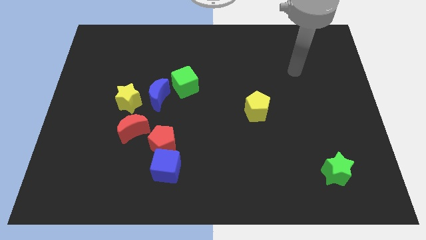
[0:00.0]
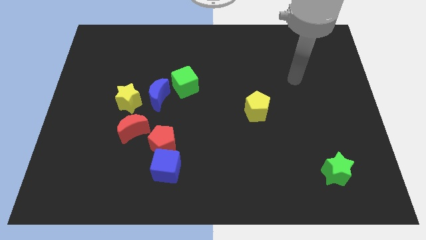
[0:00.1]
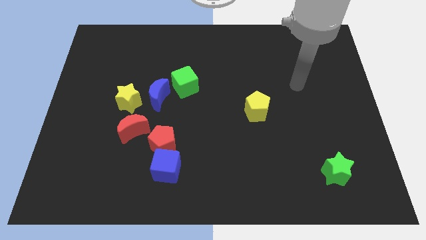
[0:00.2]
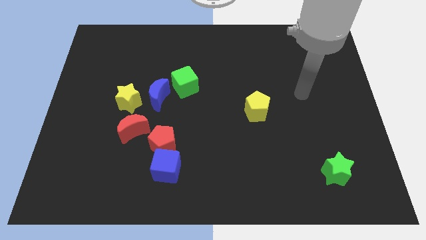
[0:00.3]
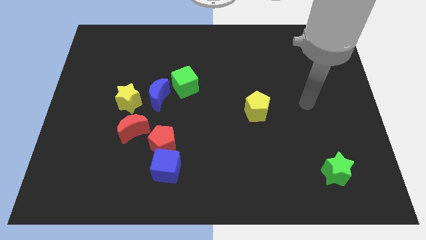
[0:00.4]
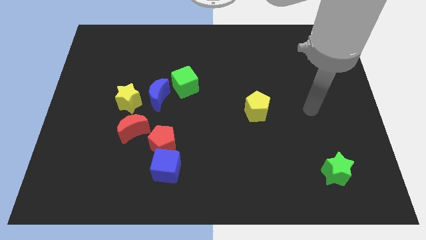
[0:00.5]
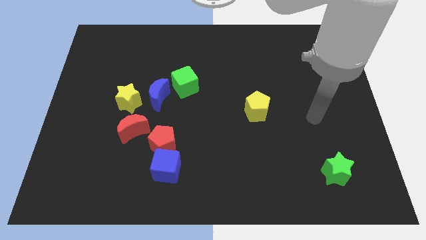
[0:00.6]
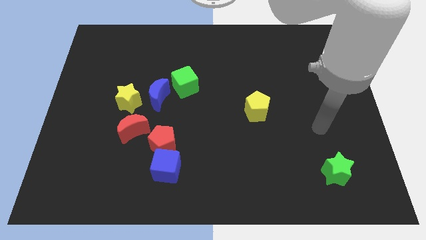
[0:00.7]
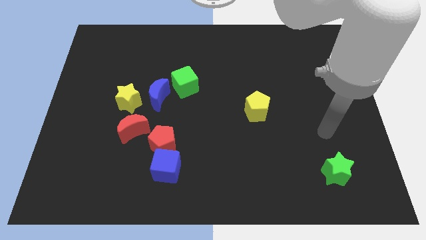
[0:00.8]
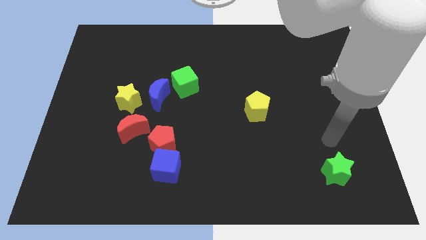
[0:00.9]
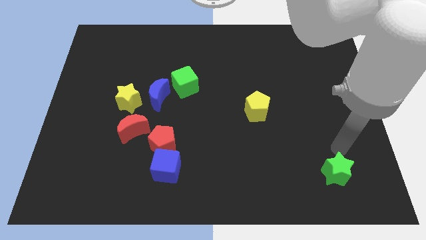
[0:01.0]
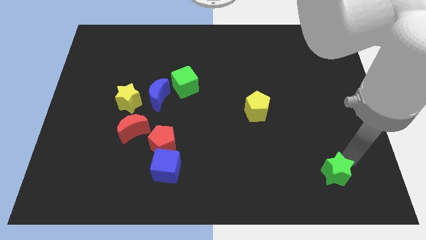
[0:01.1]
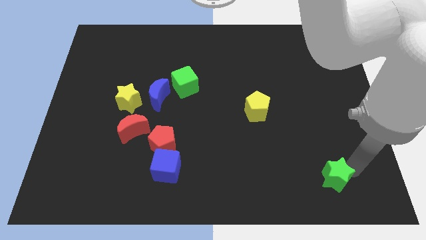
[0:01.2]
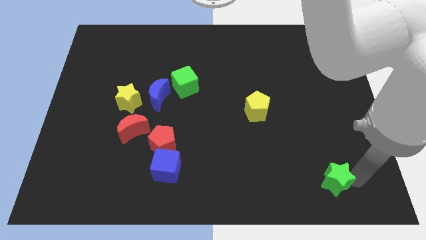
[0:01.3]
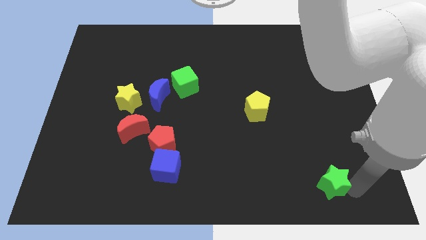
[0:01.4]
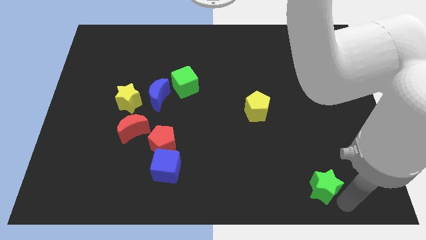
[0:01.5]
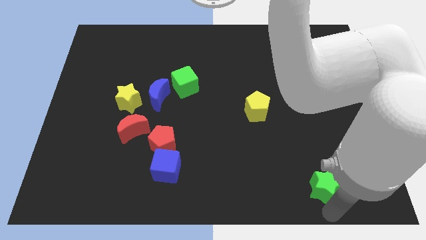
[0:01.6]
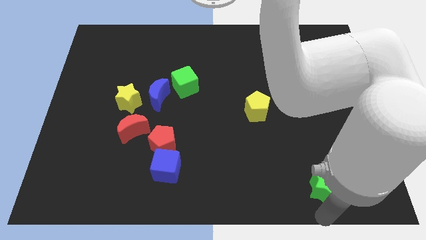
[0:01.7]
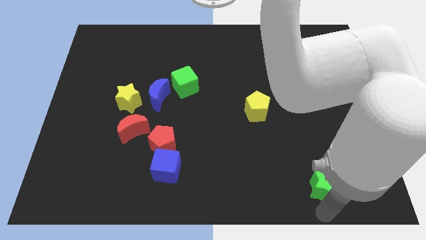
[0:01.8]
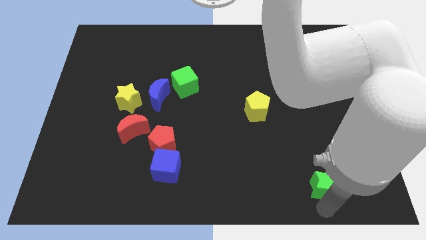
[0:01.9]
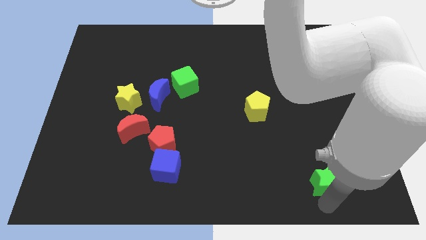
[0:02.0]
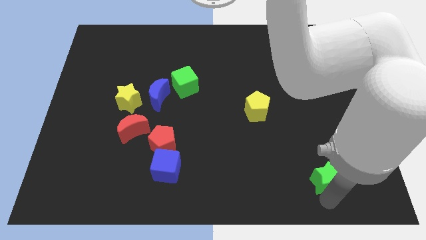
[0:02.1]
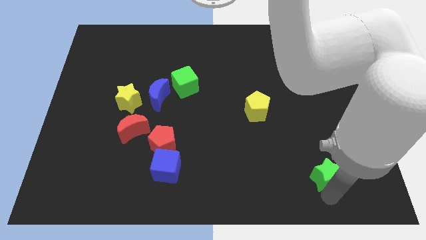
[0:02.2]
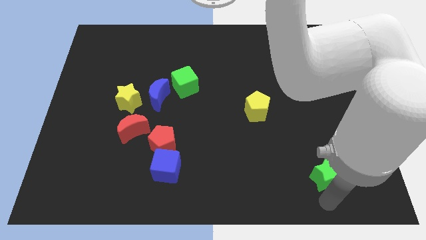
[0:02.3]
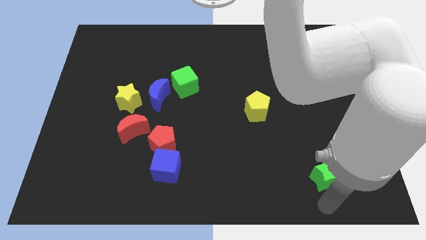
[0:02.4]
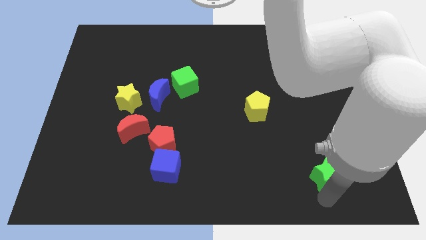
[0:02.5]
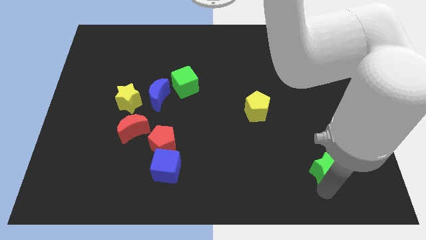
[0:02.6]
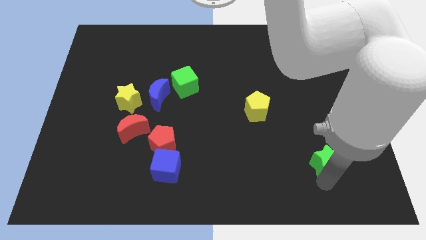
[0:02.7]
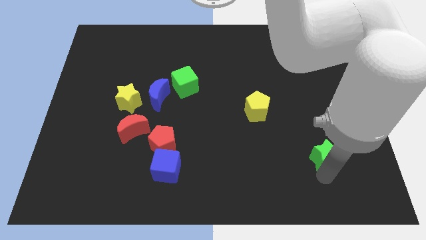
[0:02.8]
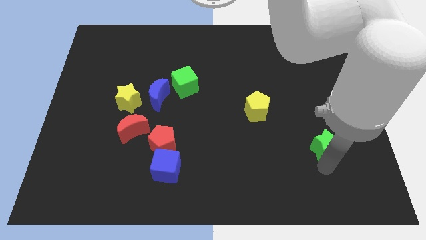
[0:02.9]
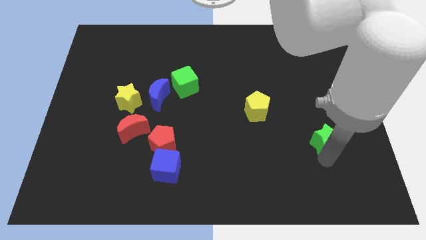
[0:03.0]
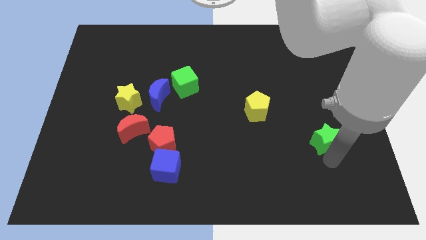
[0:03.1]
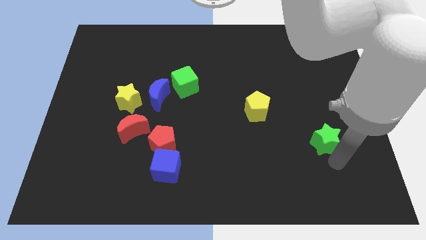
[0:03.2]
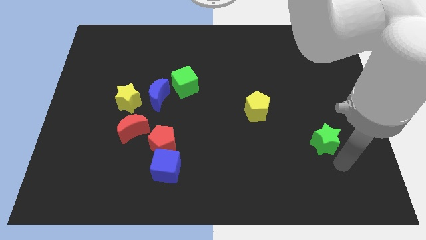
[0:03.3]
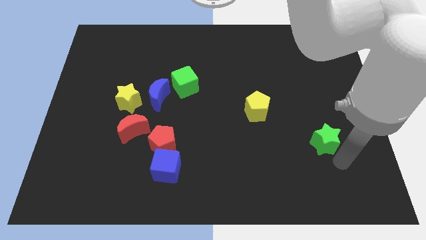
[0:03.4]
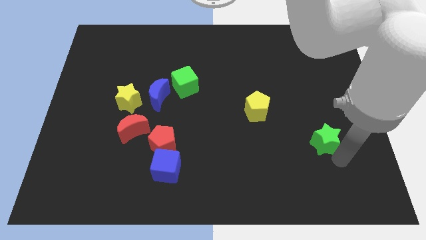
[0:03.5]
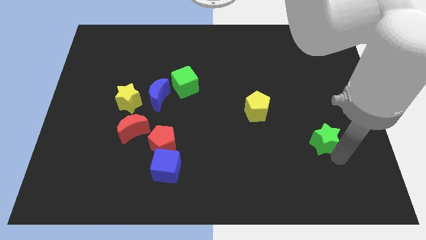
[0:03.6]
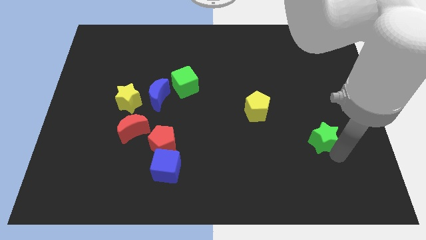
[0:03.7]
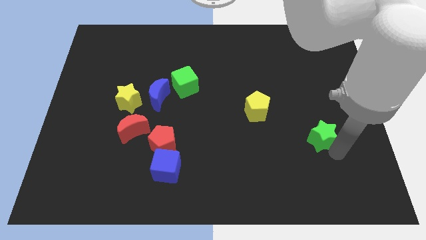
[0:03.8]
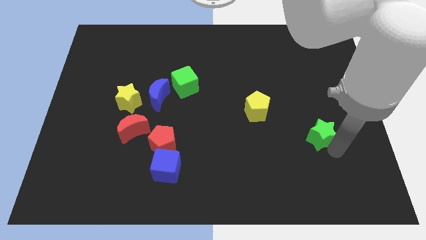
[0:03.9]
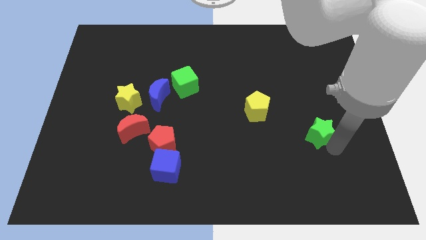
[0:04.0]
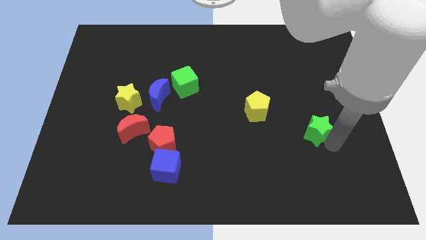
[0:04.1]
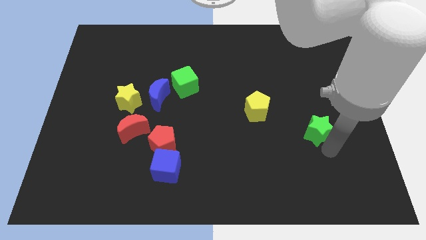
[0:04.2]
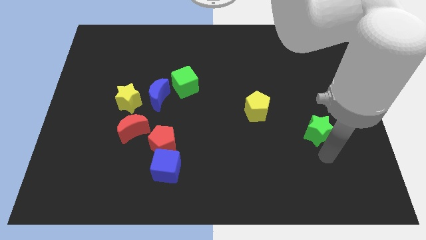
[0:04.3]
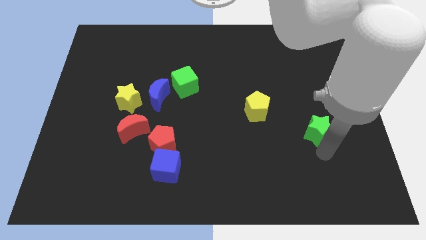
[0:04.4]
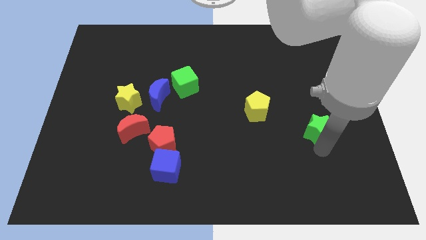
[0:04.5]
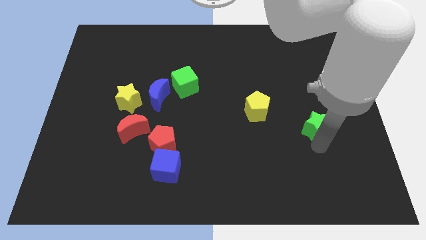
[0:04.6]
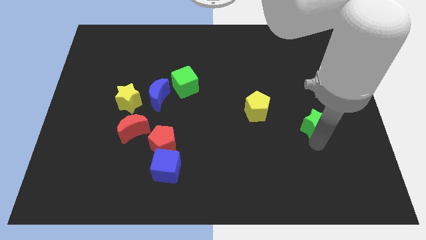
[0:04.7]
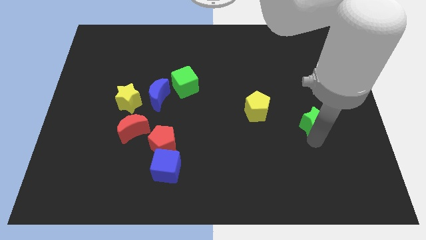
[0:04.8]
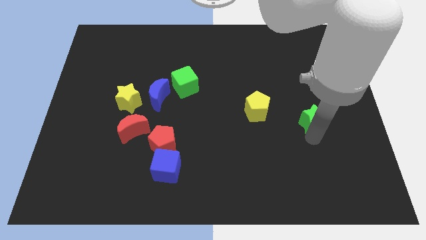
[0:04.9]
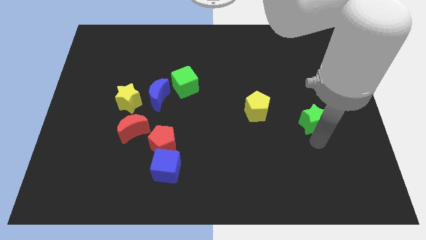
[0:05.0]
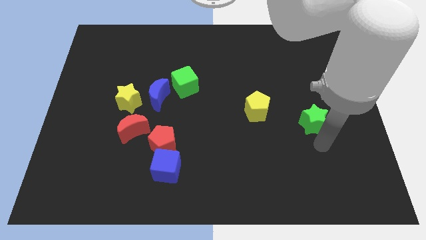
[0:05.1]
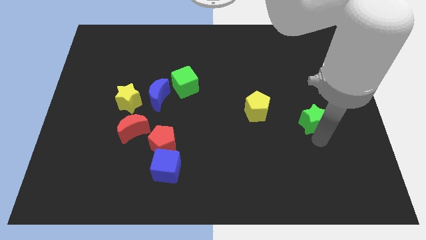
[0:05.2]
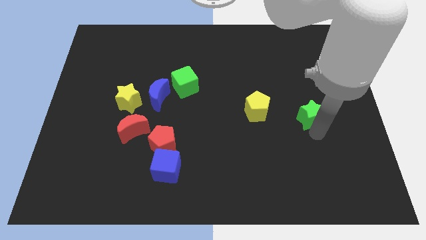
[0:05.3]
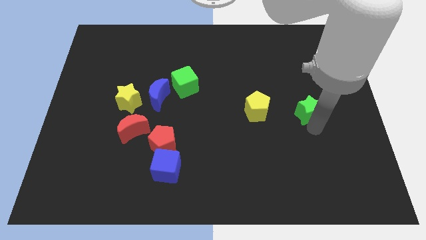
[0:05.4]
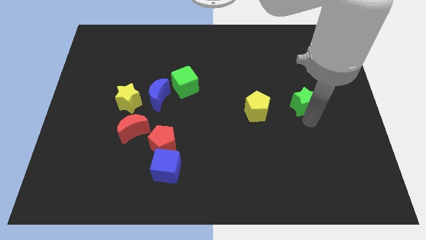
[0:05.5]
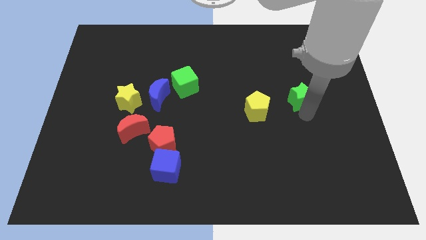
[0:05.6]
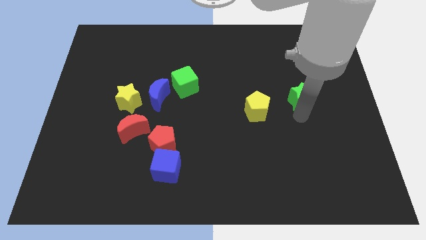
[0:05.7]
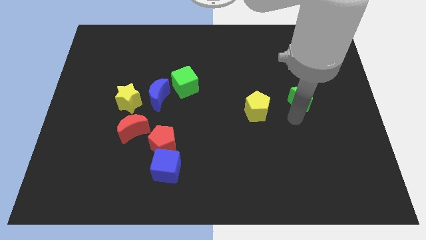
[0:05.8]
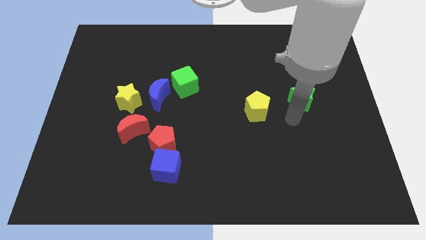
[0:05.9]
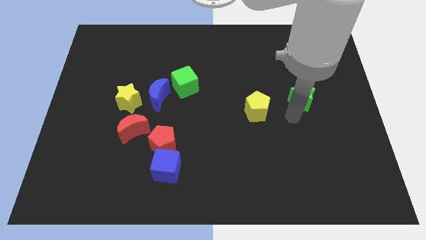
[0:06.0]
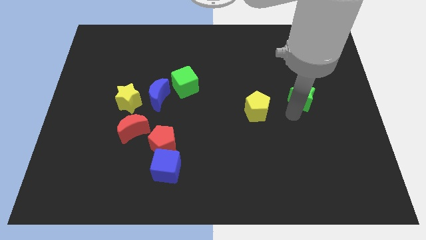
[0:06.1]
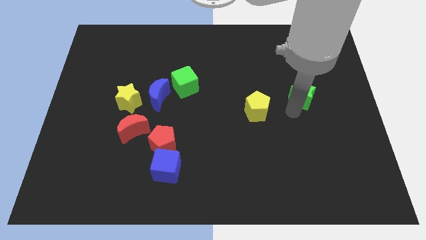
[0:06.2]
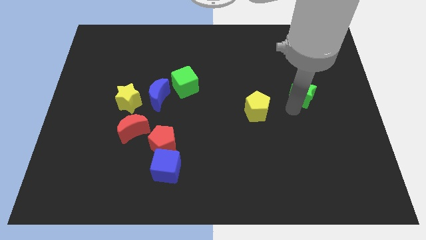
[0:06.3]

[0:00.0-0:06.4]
slide the green star up

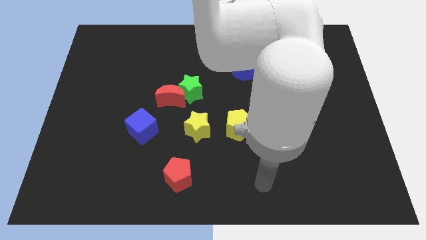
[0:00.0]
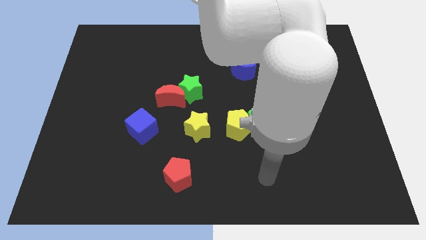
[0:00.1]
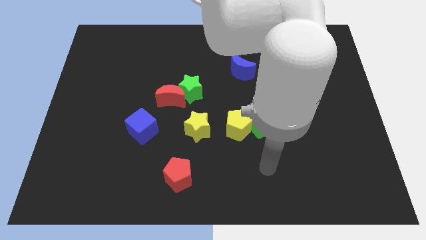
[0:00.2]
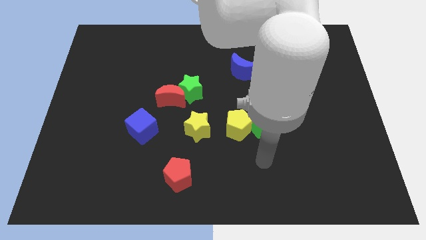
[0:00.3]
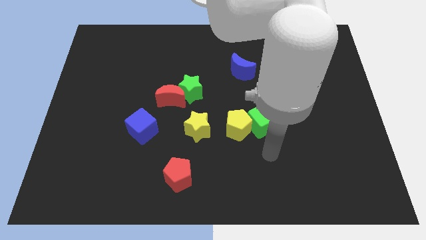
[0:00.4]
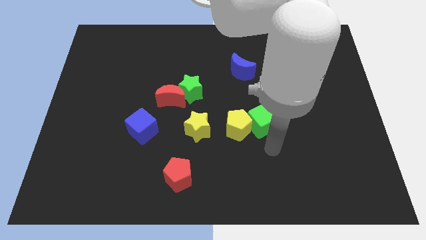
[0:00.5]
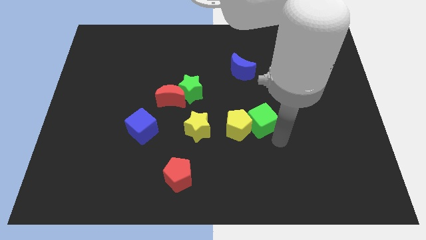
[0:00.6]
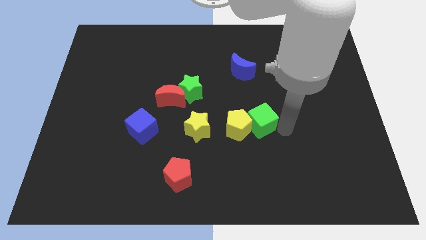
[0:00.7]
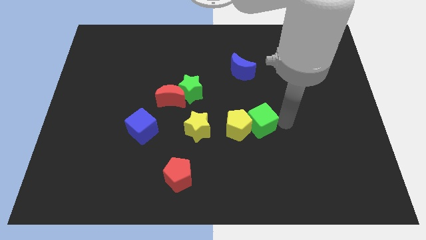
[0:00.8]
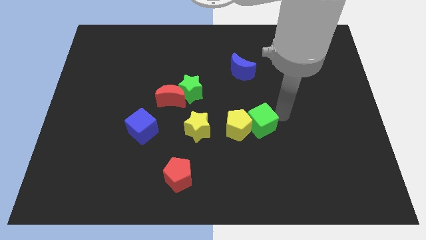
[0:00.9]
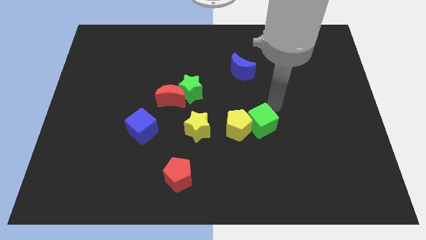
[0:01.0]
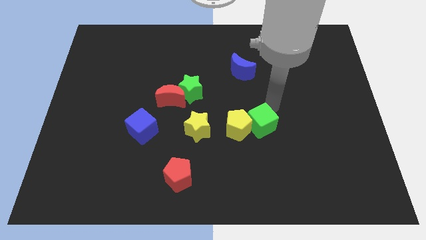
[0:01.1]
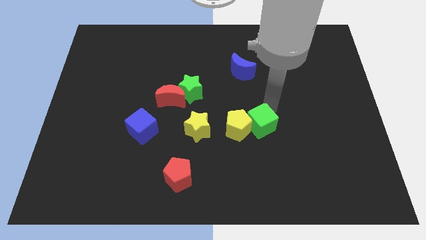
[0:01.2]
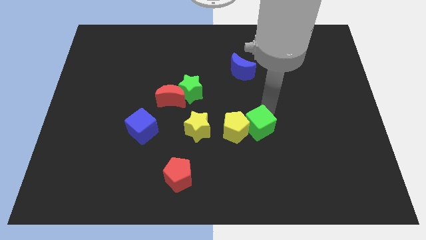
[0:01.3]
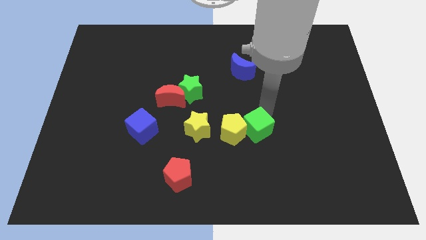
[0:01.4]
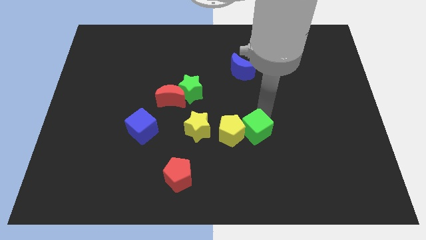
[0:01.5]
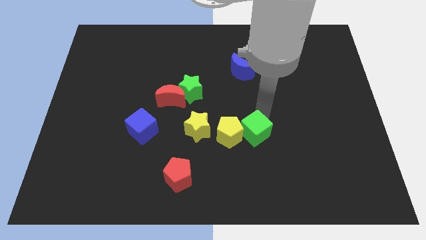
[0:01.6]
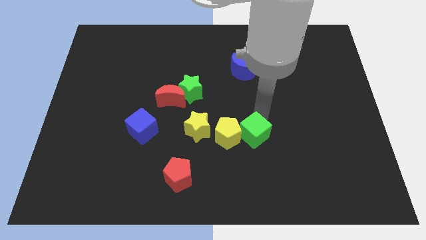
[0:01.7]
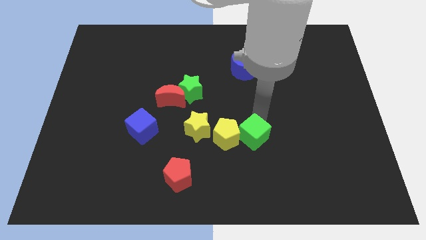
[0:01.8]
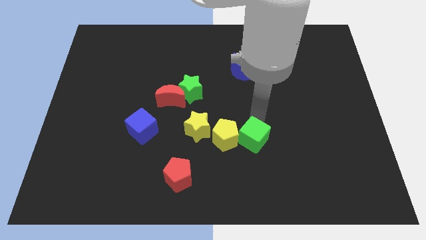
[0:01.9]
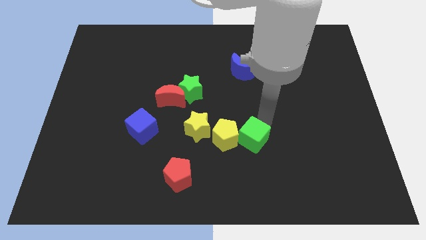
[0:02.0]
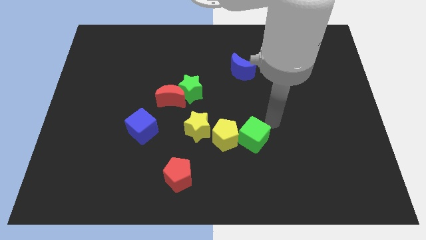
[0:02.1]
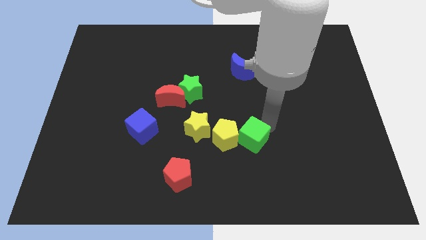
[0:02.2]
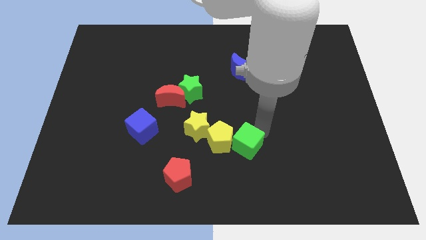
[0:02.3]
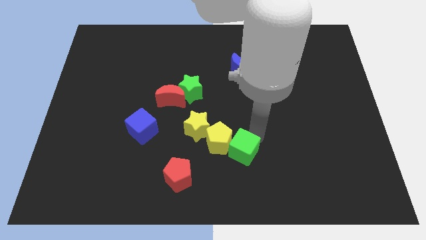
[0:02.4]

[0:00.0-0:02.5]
move the green cube somewhat downwards and then to the left
